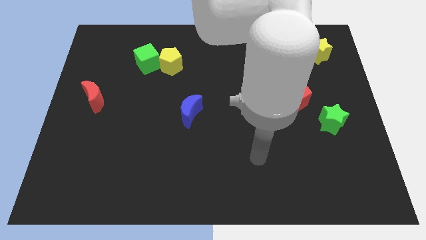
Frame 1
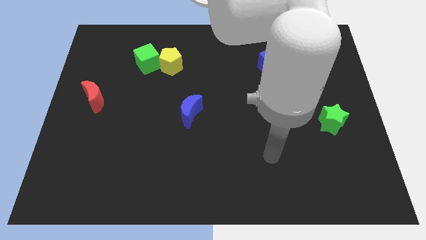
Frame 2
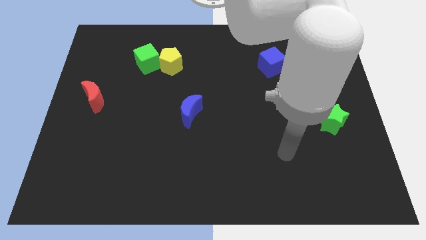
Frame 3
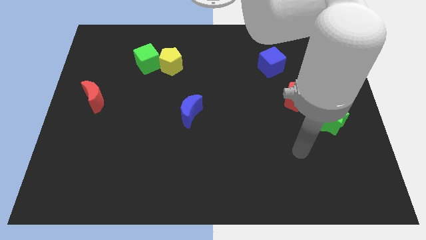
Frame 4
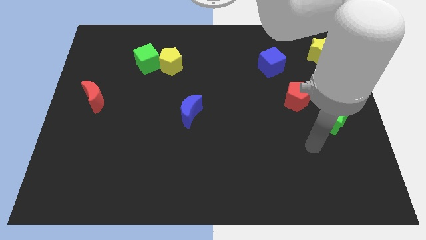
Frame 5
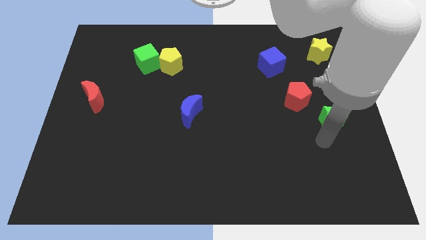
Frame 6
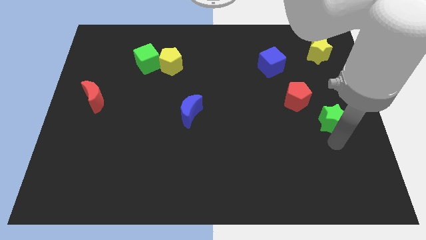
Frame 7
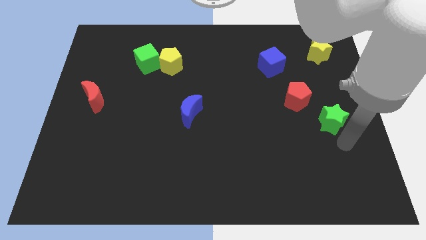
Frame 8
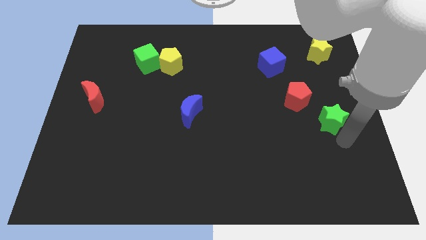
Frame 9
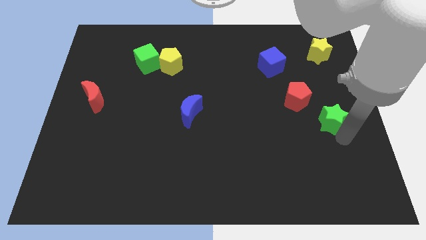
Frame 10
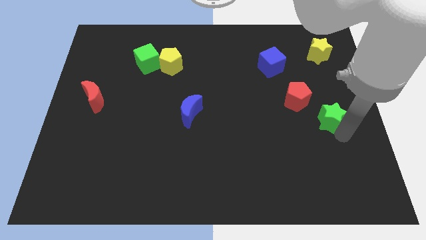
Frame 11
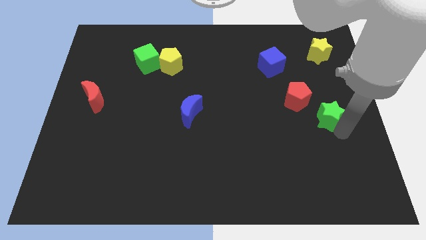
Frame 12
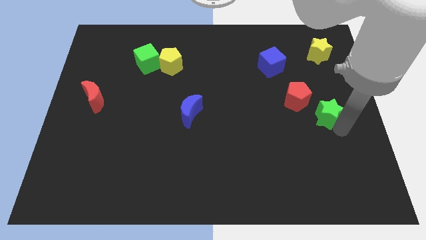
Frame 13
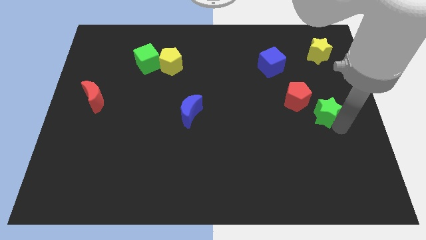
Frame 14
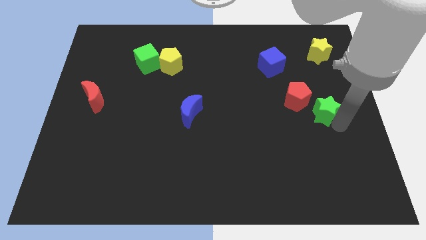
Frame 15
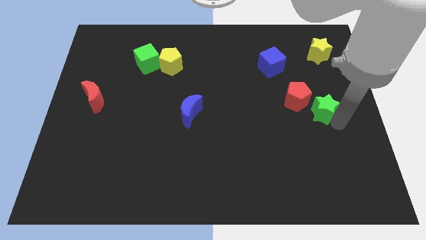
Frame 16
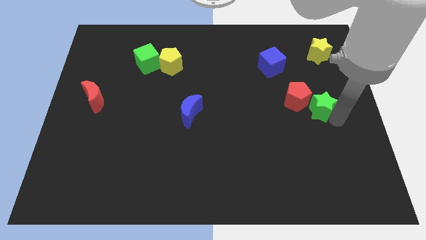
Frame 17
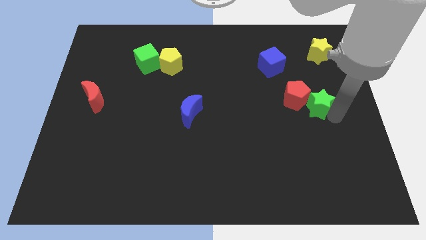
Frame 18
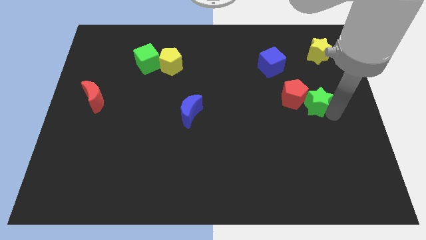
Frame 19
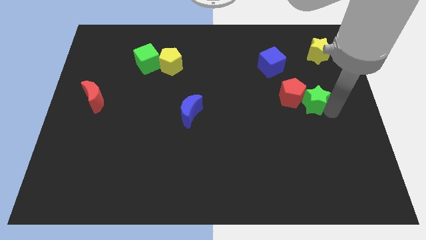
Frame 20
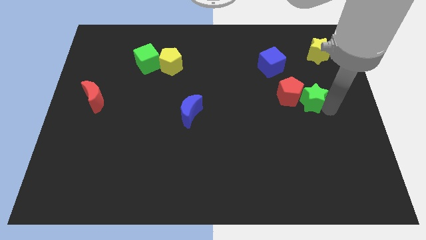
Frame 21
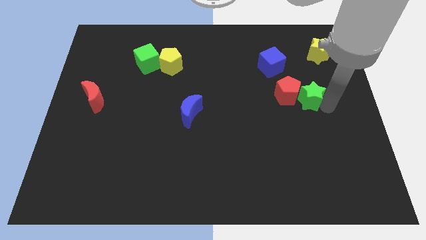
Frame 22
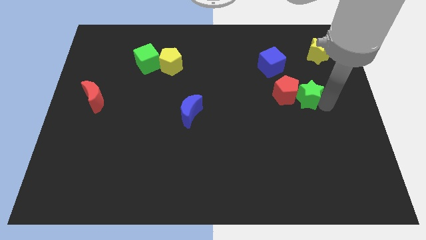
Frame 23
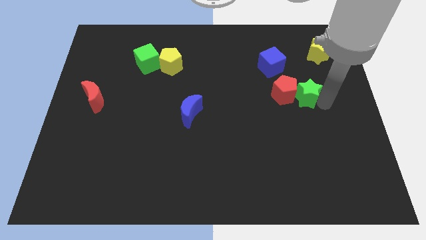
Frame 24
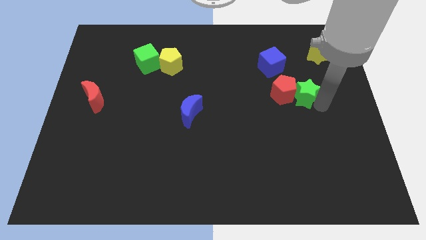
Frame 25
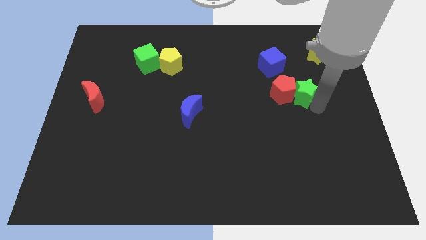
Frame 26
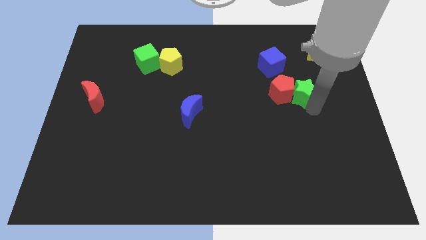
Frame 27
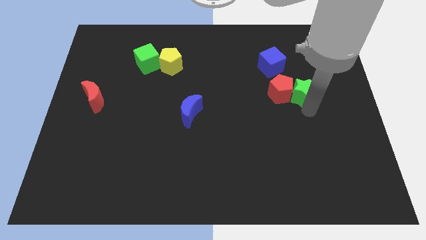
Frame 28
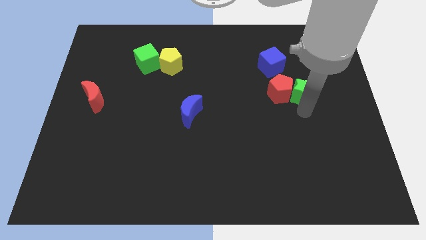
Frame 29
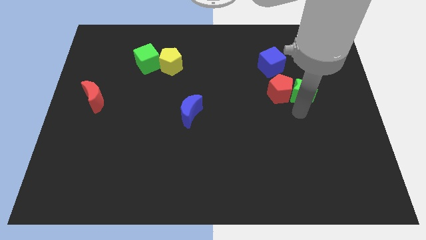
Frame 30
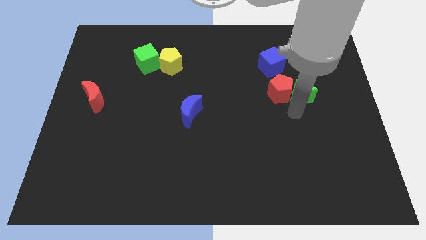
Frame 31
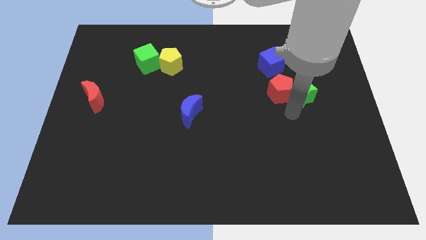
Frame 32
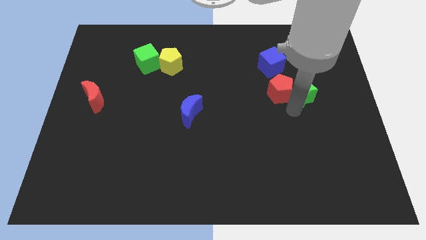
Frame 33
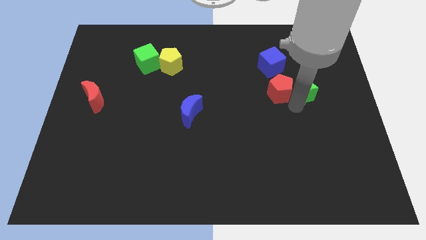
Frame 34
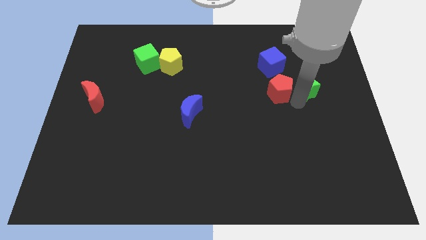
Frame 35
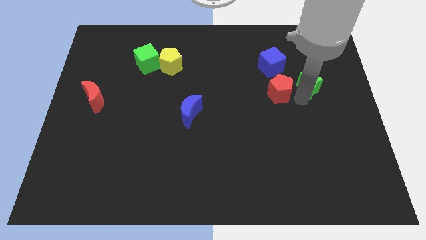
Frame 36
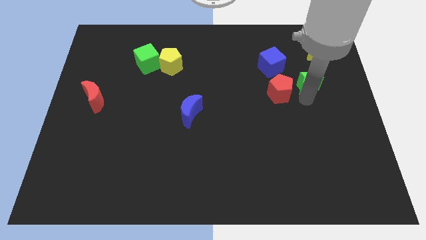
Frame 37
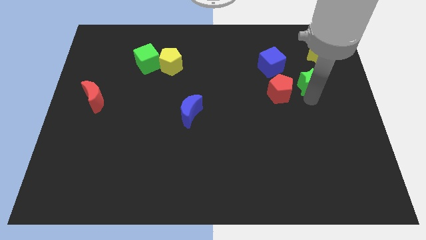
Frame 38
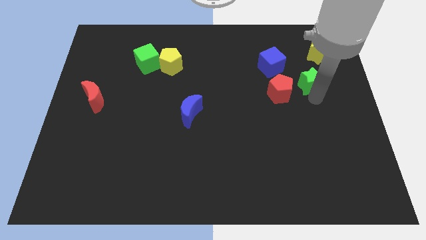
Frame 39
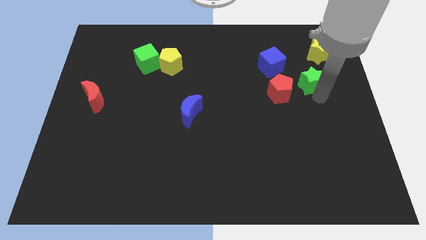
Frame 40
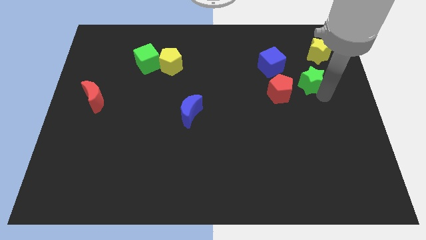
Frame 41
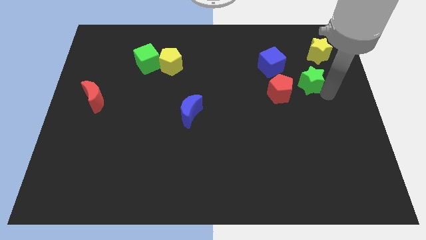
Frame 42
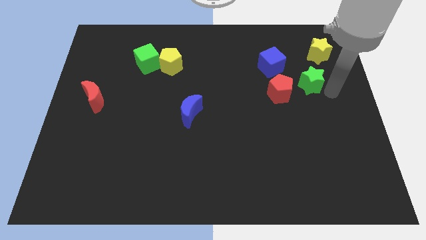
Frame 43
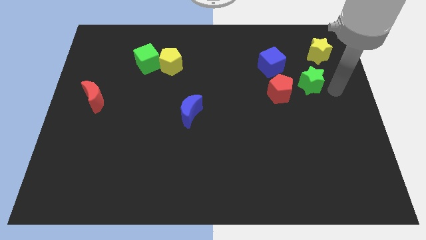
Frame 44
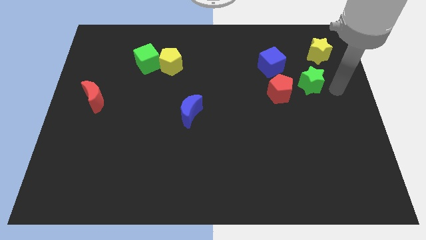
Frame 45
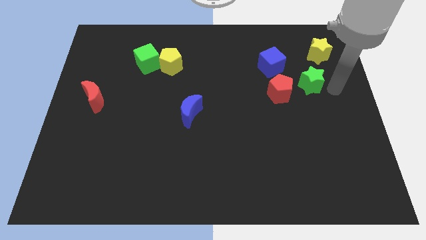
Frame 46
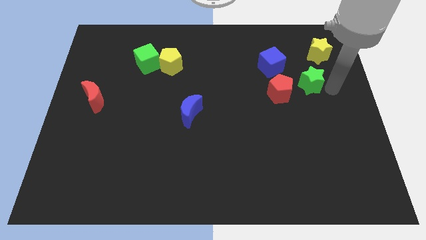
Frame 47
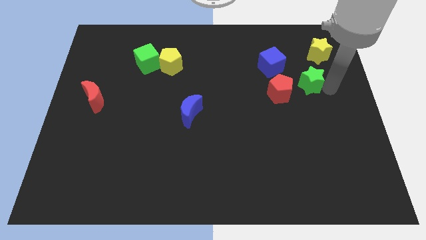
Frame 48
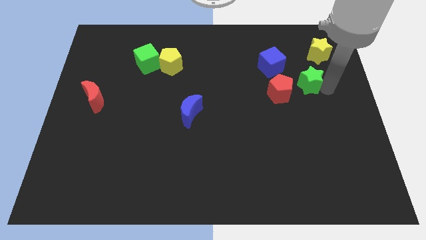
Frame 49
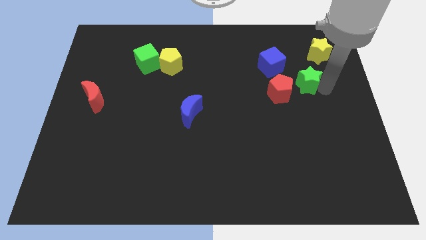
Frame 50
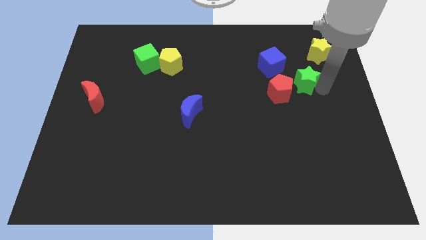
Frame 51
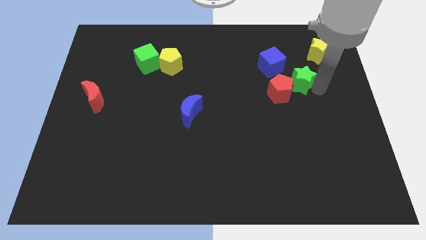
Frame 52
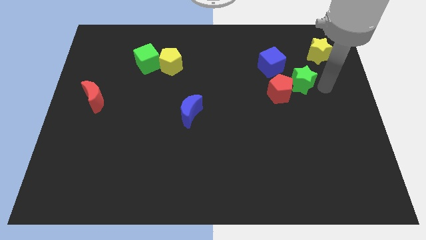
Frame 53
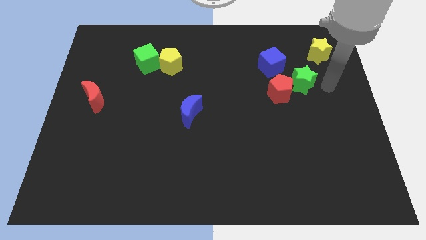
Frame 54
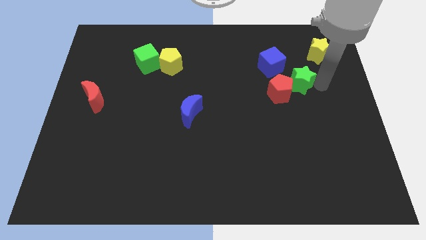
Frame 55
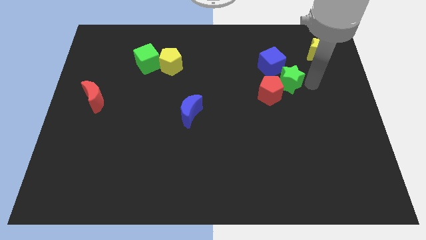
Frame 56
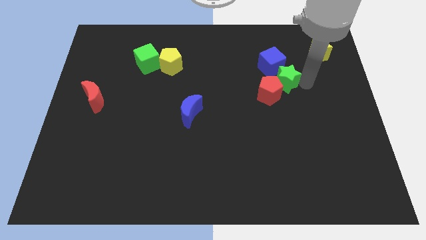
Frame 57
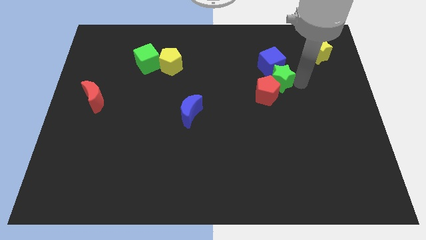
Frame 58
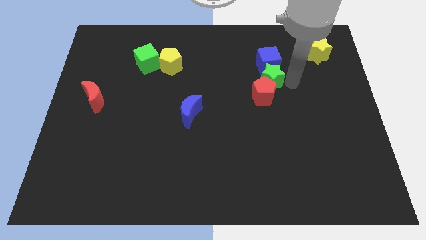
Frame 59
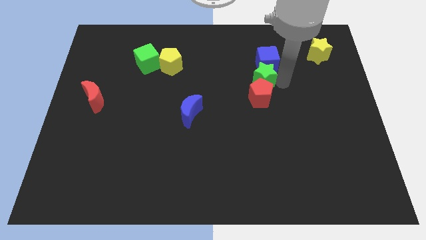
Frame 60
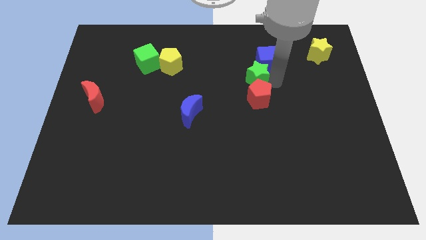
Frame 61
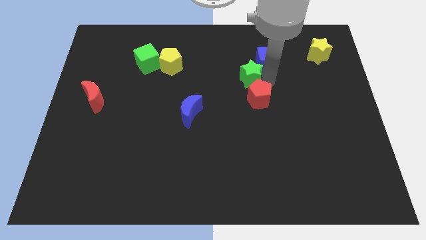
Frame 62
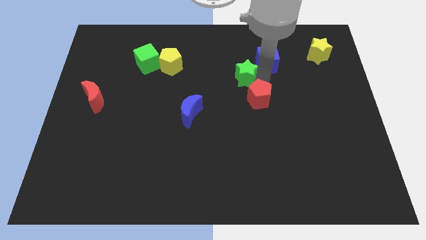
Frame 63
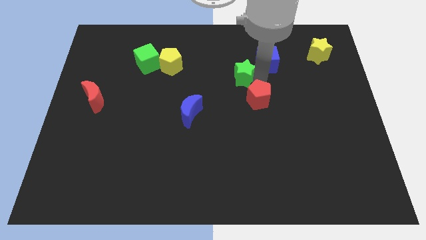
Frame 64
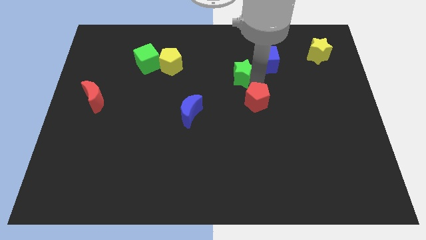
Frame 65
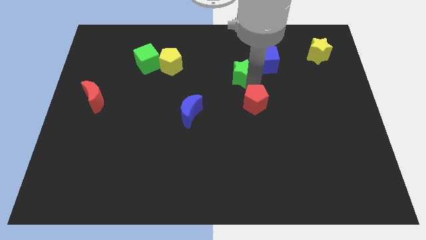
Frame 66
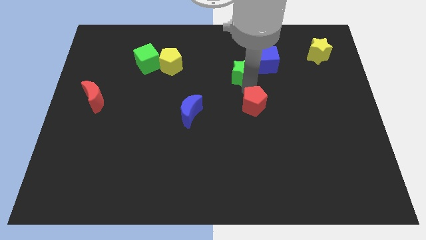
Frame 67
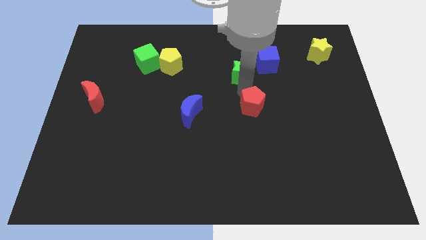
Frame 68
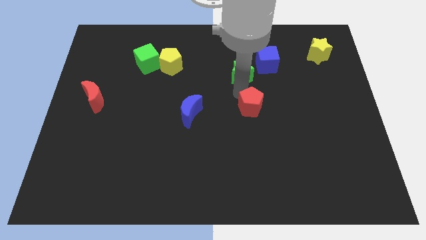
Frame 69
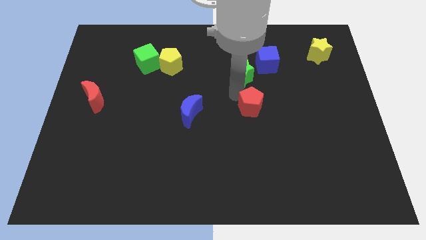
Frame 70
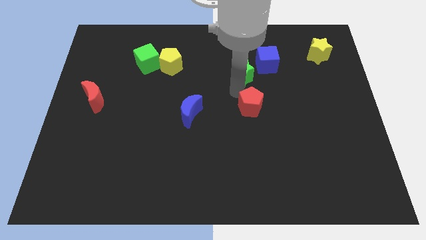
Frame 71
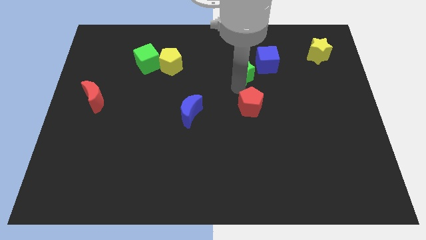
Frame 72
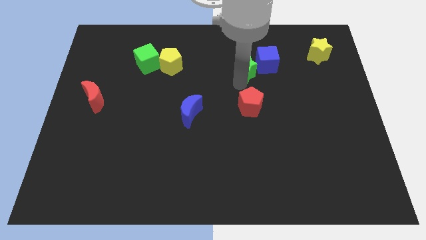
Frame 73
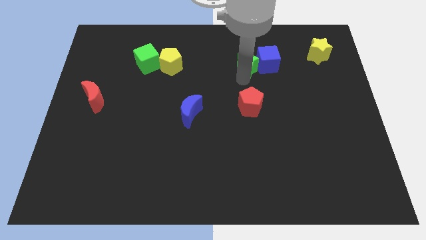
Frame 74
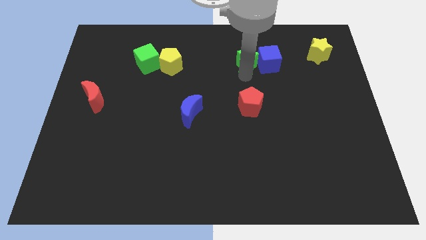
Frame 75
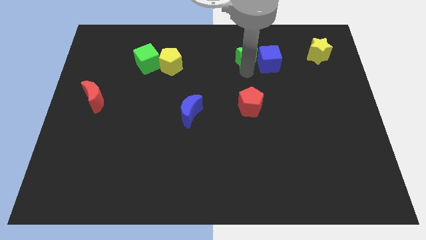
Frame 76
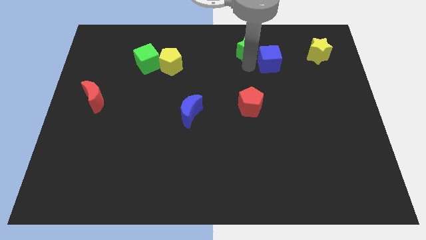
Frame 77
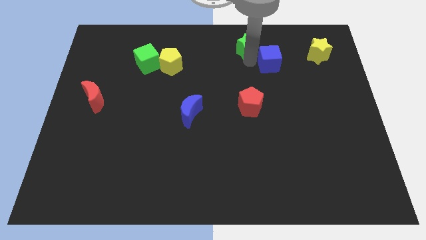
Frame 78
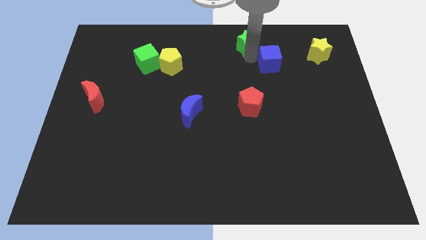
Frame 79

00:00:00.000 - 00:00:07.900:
put the green star to the top side
